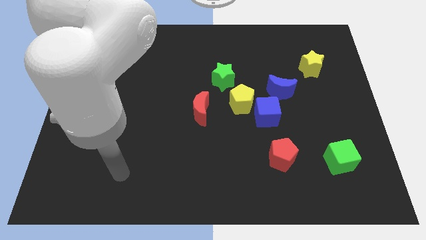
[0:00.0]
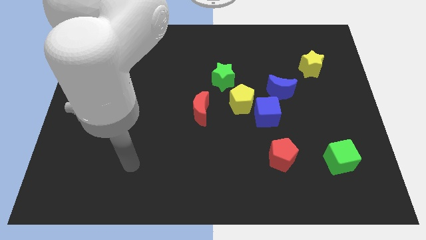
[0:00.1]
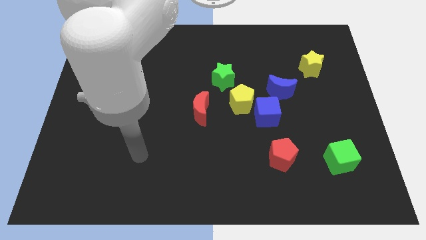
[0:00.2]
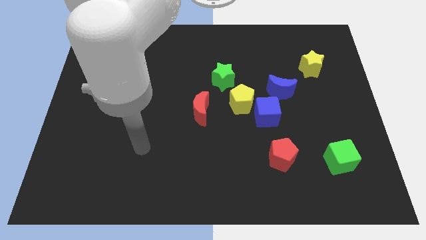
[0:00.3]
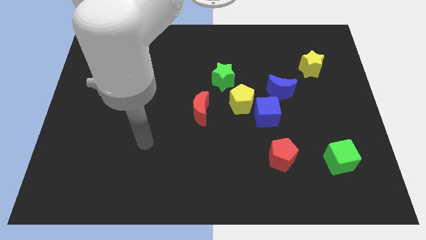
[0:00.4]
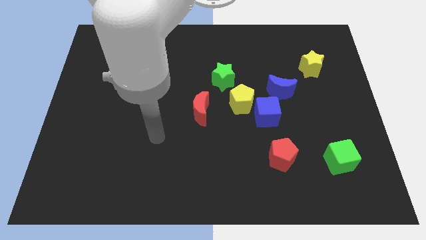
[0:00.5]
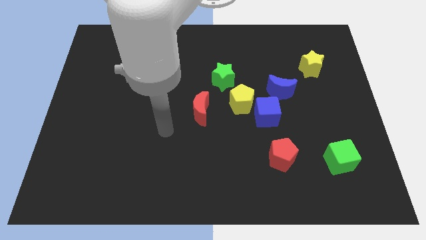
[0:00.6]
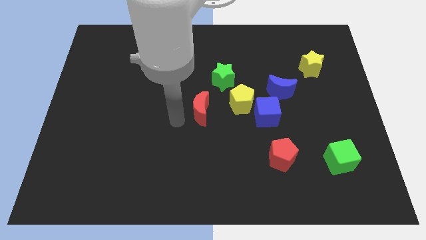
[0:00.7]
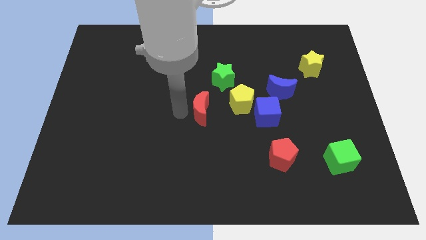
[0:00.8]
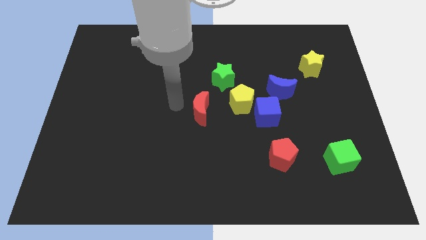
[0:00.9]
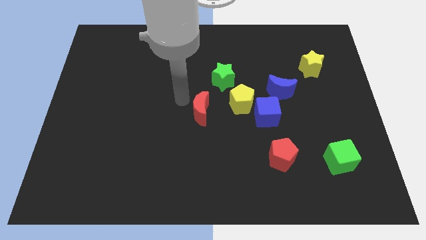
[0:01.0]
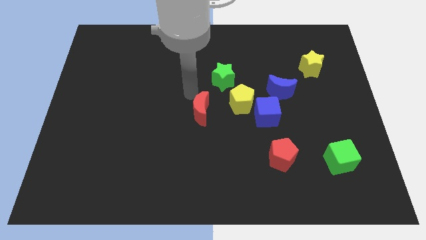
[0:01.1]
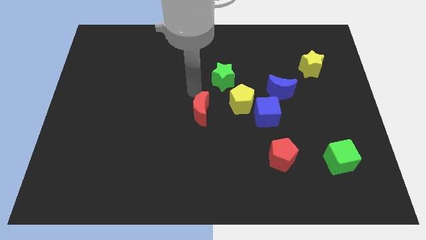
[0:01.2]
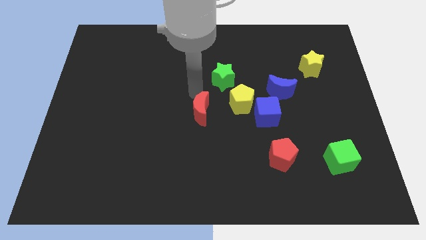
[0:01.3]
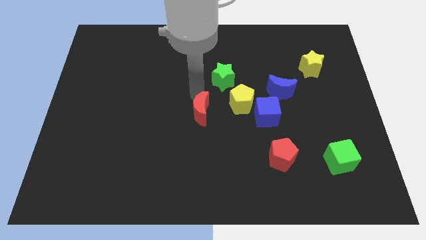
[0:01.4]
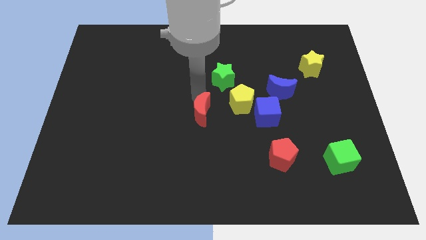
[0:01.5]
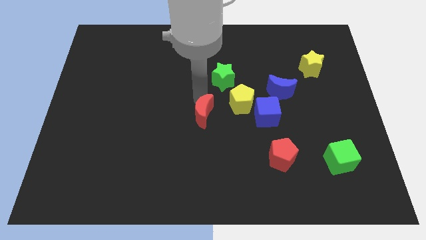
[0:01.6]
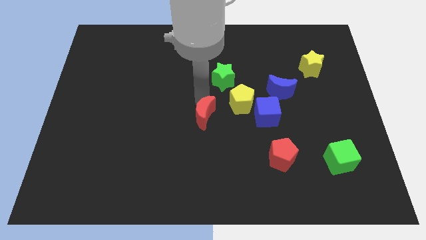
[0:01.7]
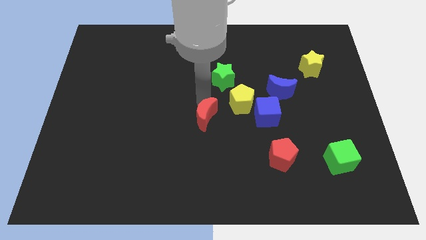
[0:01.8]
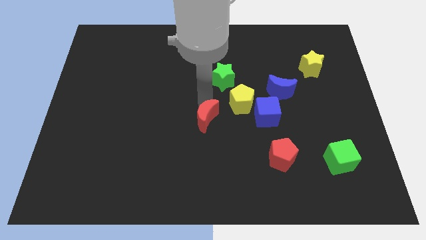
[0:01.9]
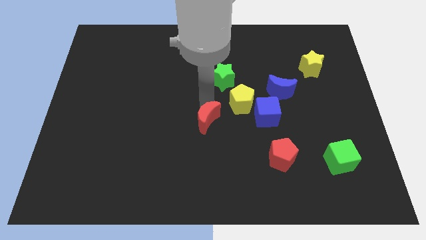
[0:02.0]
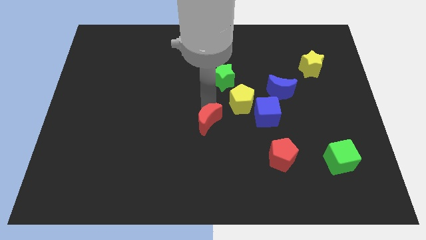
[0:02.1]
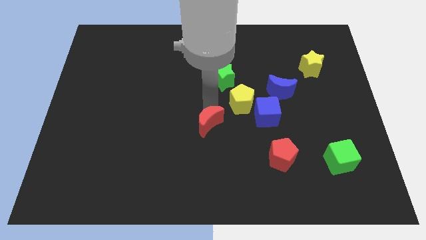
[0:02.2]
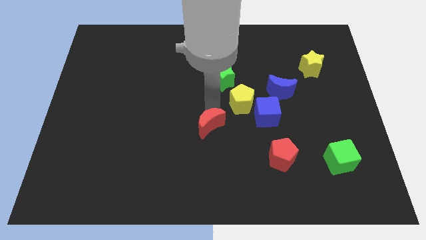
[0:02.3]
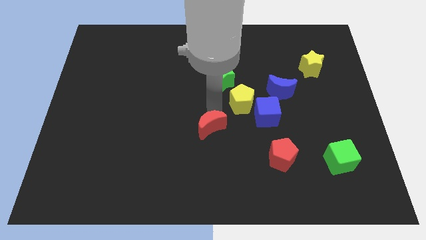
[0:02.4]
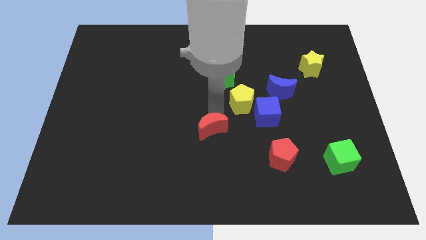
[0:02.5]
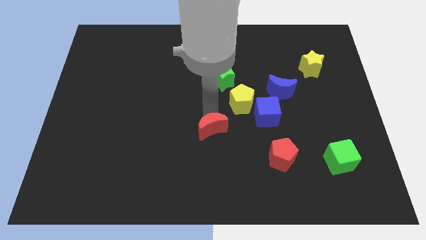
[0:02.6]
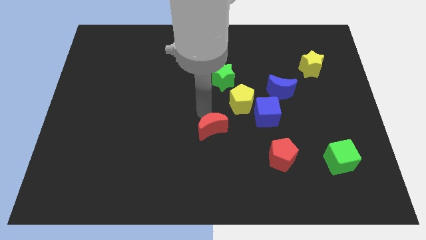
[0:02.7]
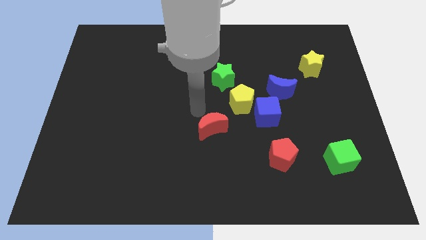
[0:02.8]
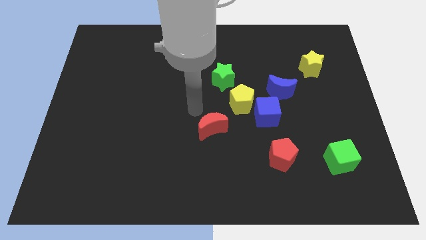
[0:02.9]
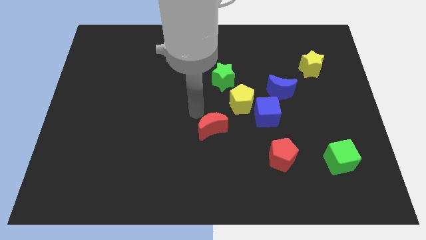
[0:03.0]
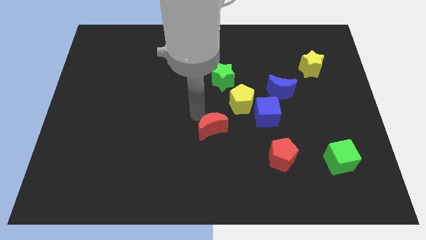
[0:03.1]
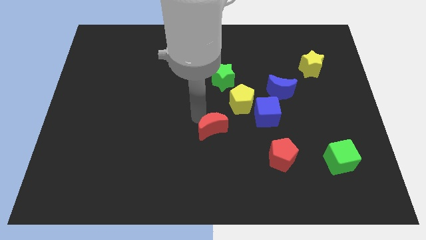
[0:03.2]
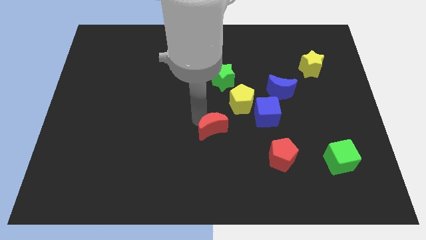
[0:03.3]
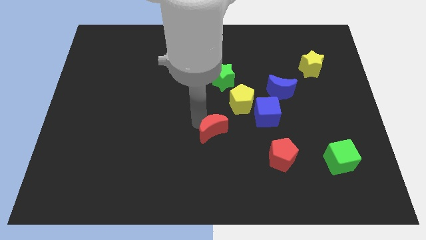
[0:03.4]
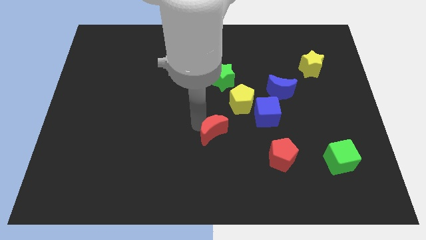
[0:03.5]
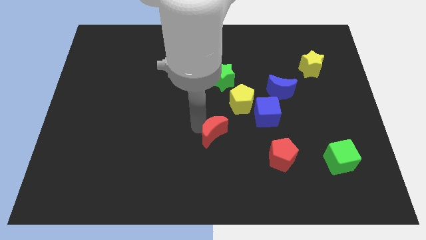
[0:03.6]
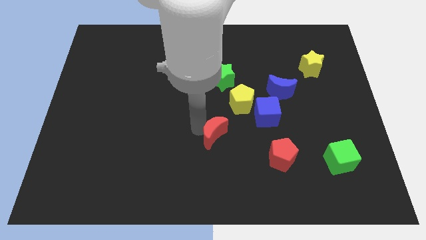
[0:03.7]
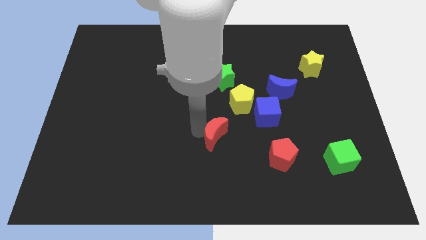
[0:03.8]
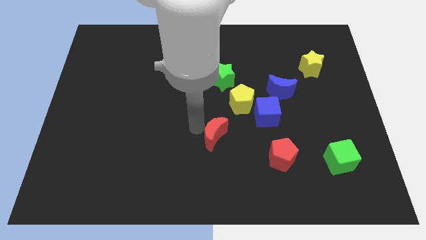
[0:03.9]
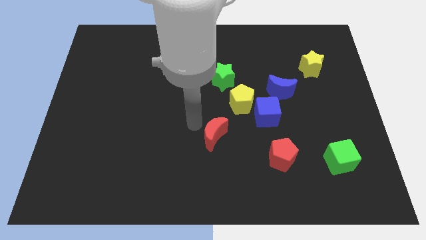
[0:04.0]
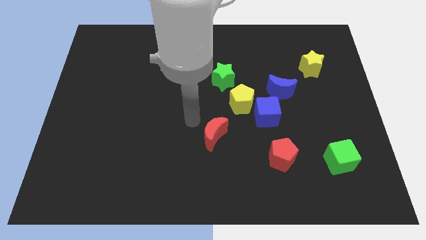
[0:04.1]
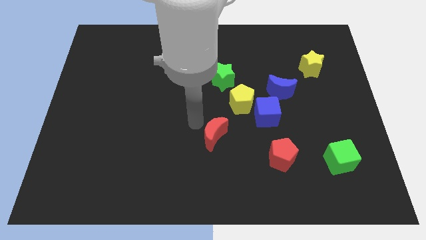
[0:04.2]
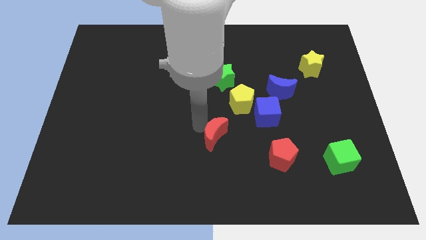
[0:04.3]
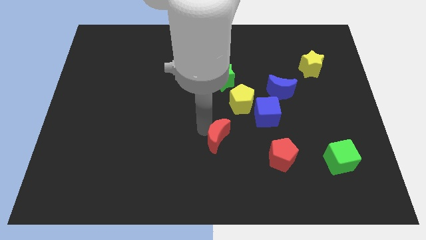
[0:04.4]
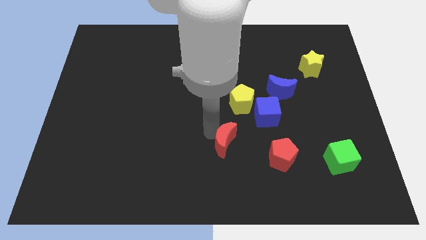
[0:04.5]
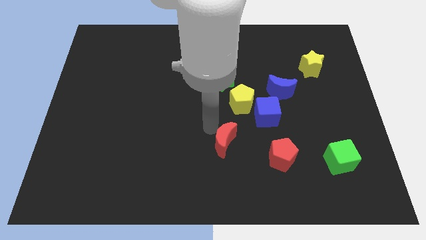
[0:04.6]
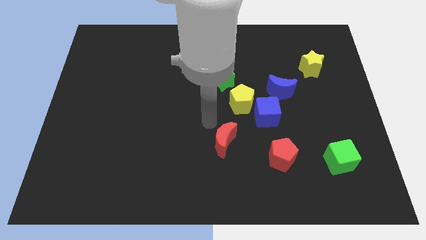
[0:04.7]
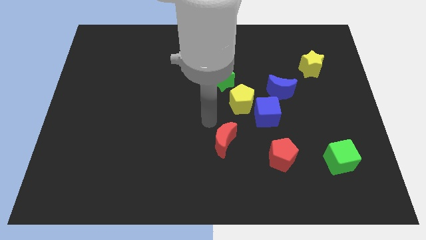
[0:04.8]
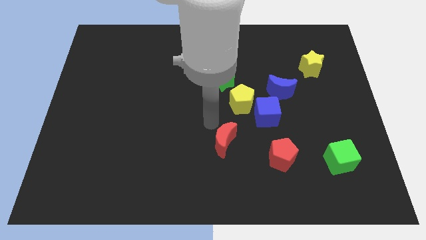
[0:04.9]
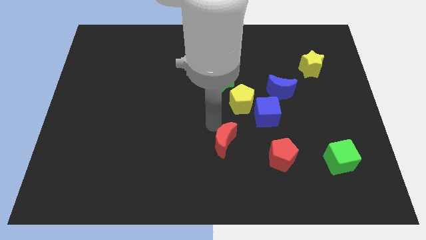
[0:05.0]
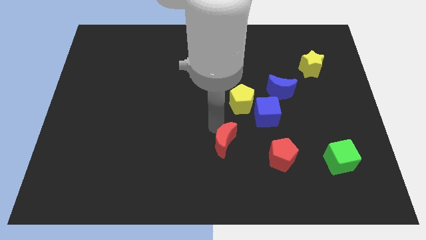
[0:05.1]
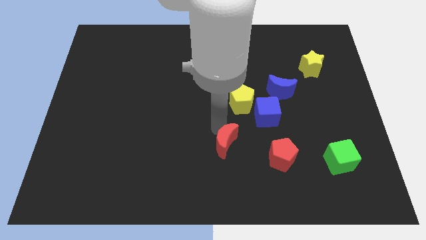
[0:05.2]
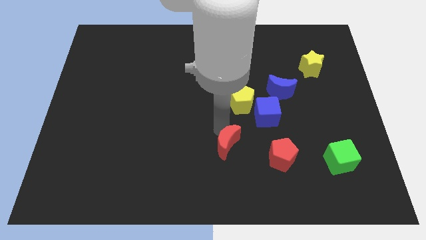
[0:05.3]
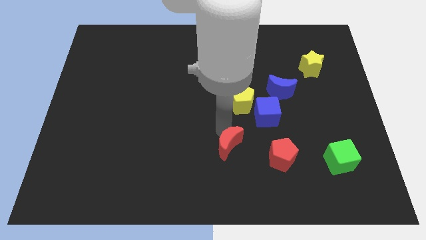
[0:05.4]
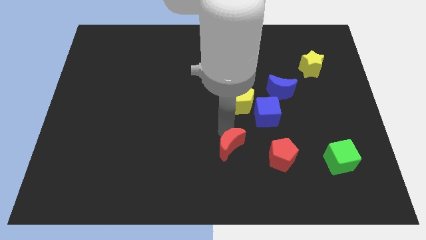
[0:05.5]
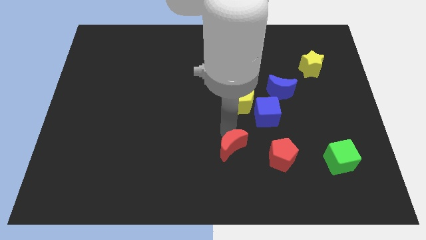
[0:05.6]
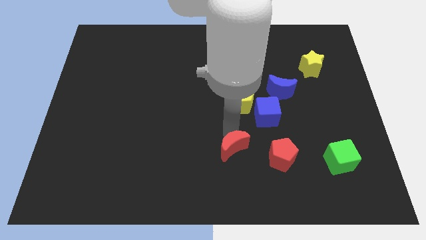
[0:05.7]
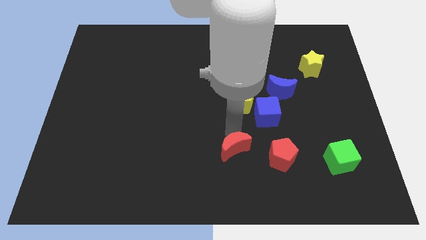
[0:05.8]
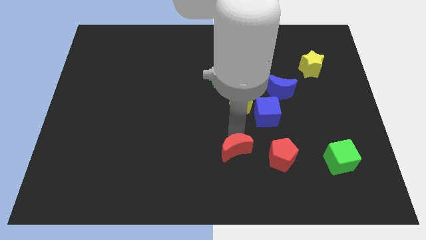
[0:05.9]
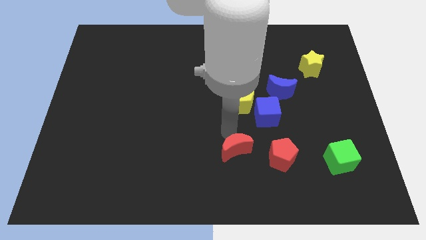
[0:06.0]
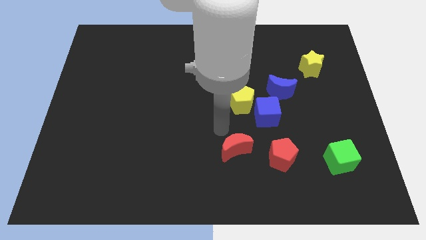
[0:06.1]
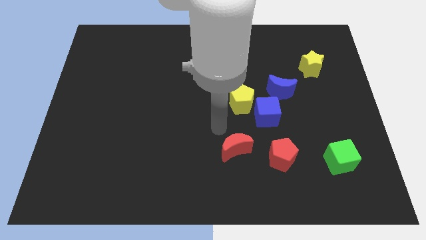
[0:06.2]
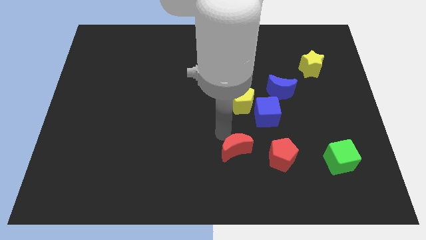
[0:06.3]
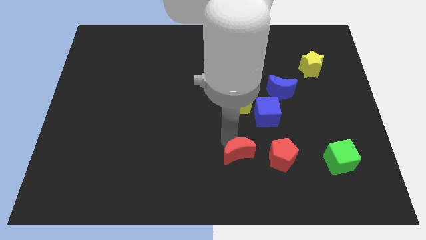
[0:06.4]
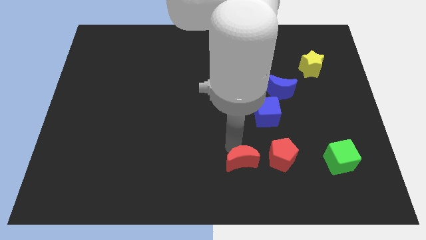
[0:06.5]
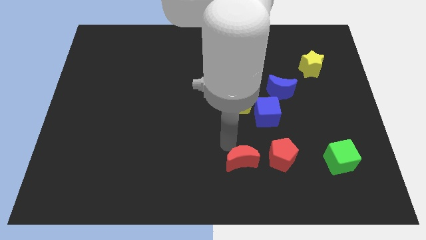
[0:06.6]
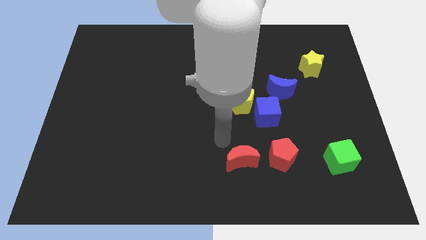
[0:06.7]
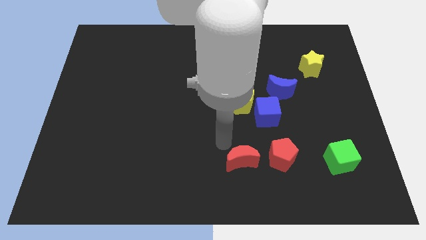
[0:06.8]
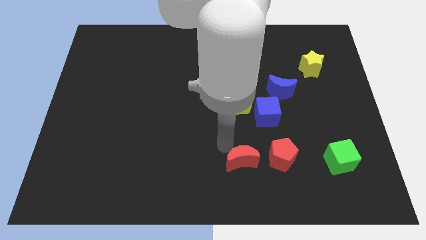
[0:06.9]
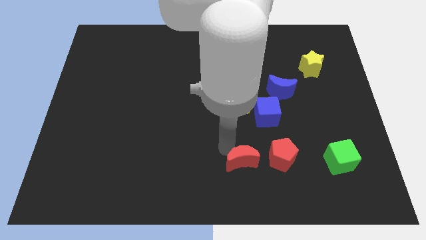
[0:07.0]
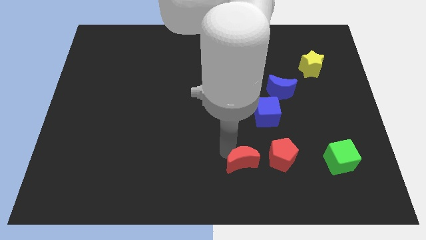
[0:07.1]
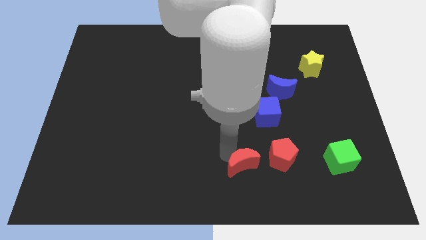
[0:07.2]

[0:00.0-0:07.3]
push the red moon to the bottom left of the red pentagon
